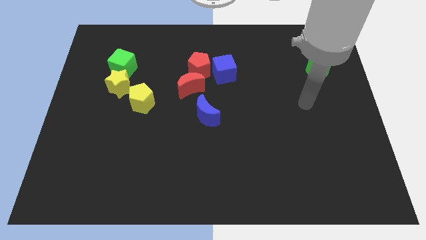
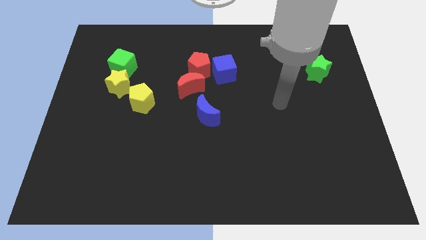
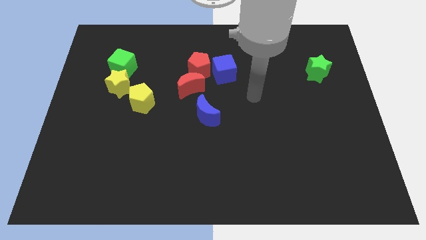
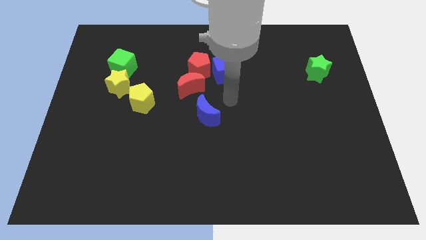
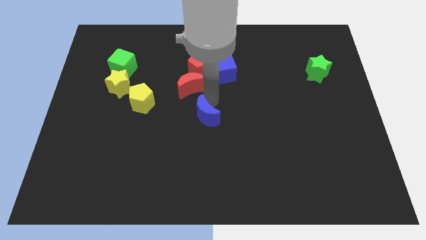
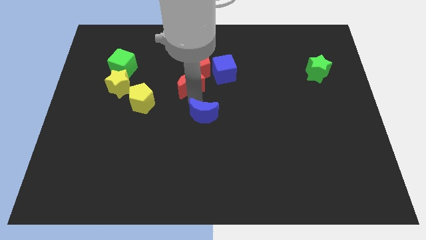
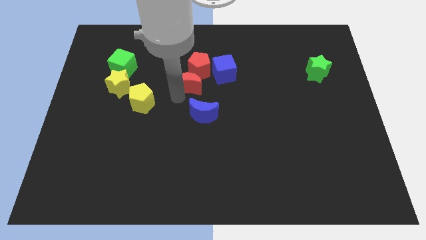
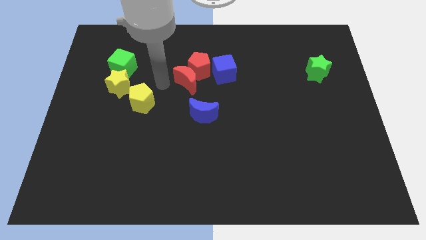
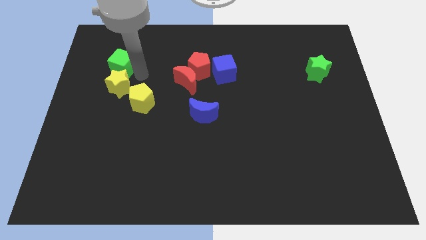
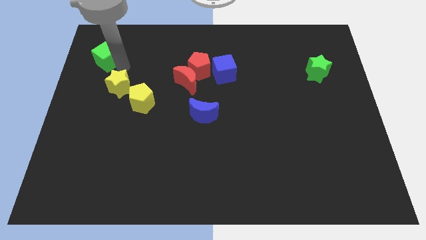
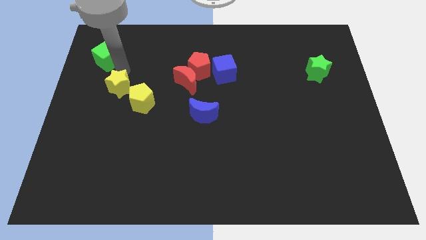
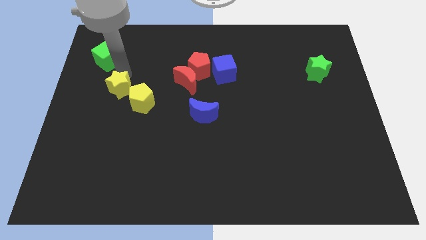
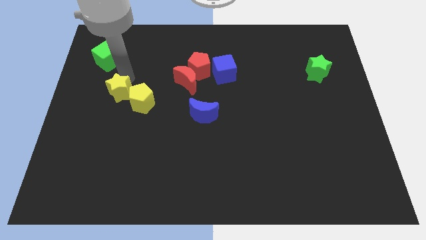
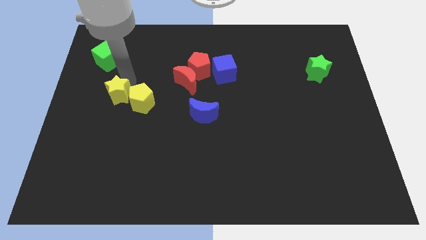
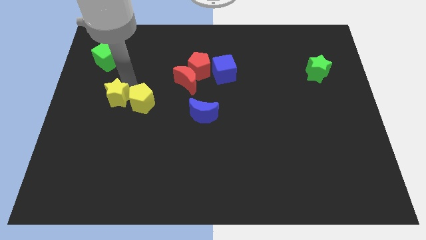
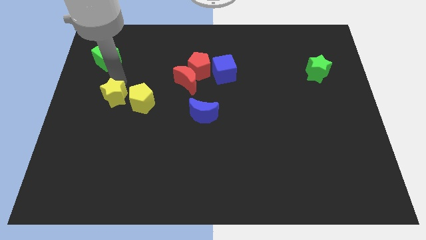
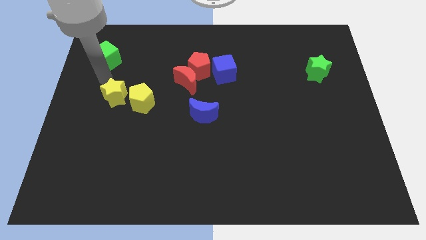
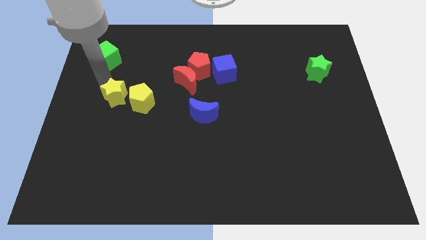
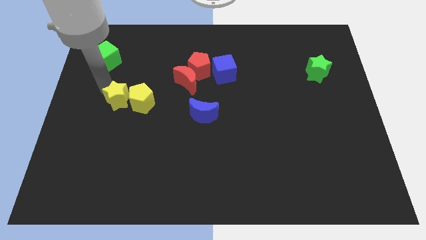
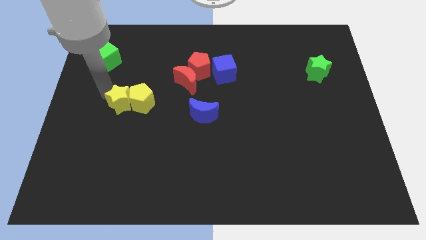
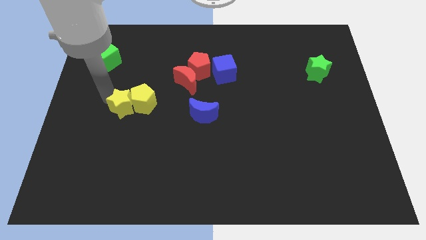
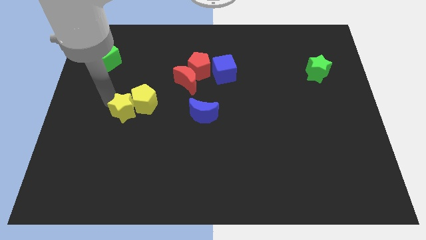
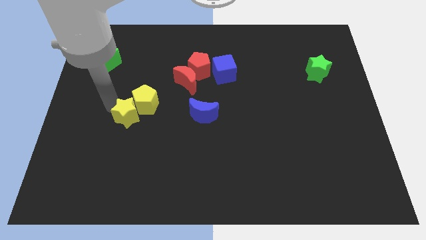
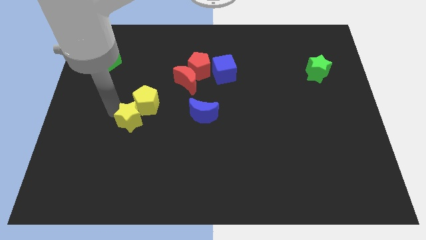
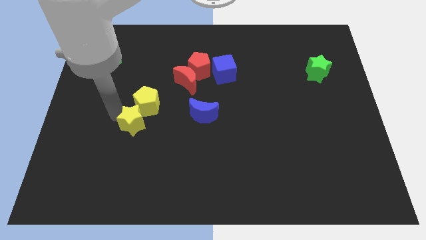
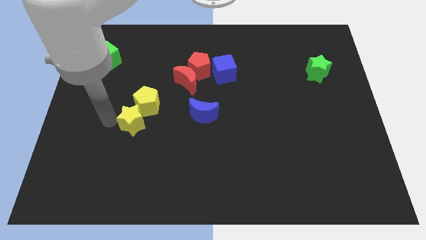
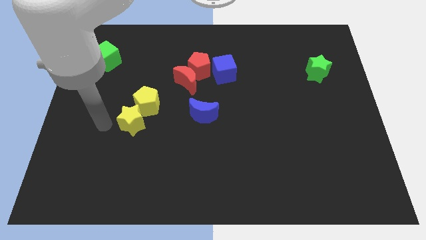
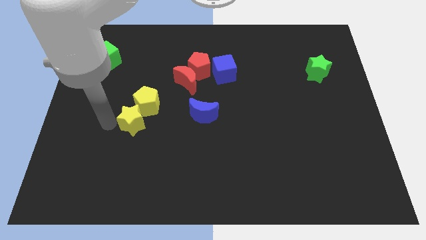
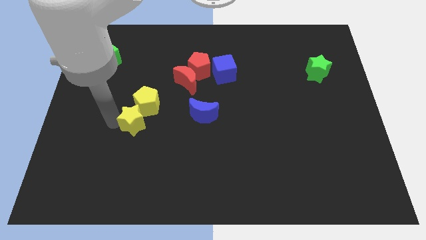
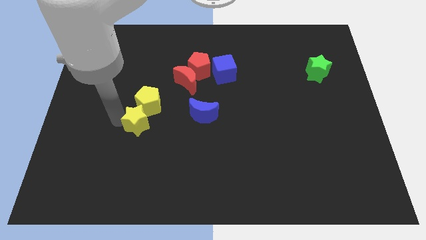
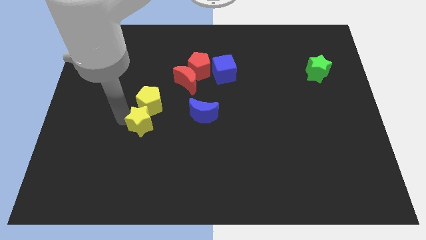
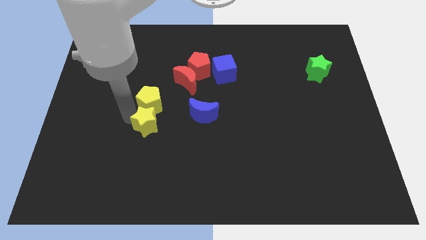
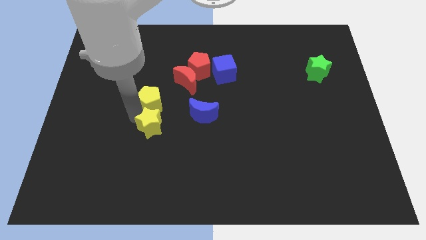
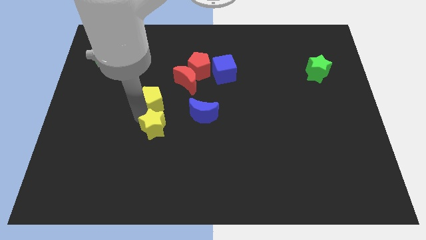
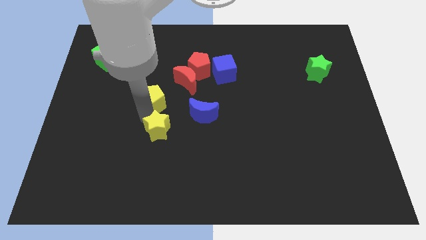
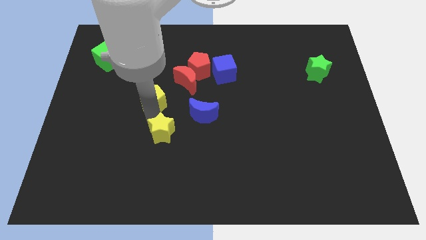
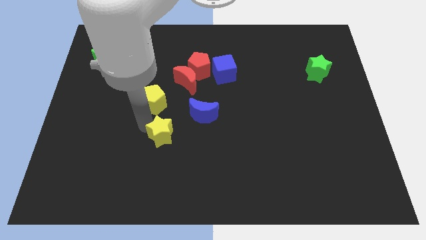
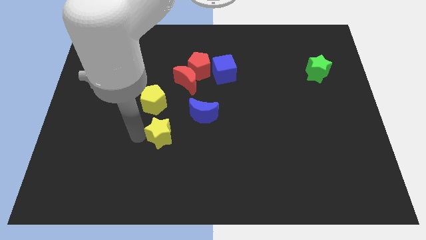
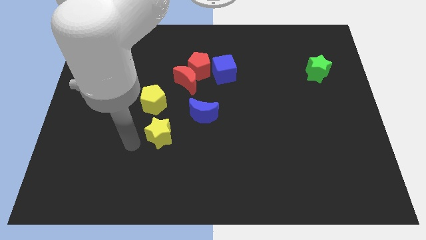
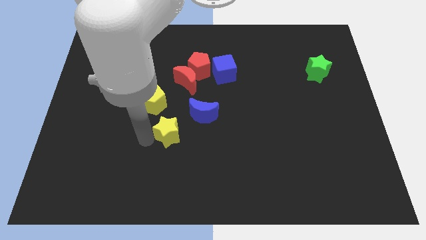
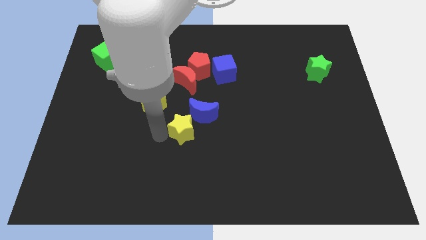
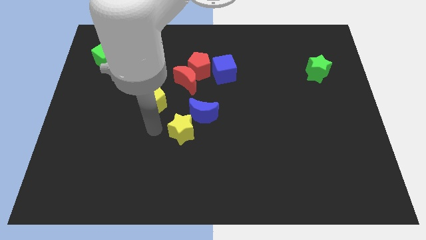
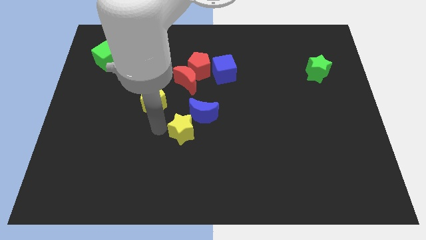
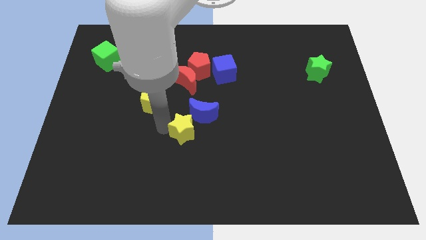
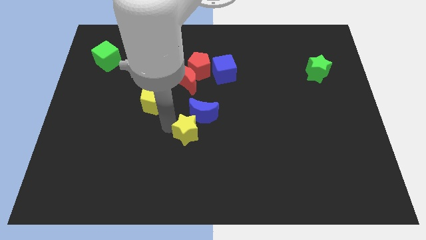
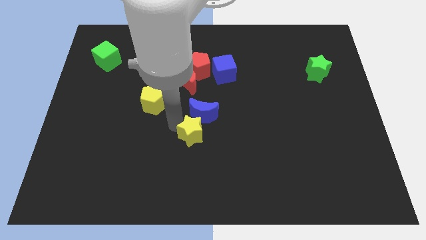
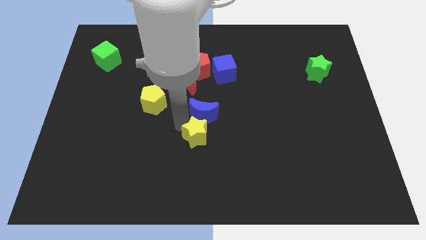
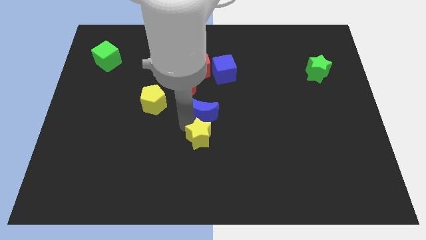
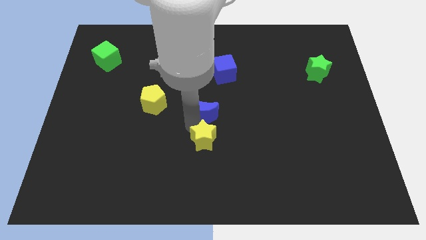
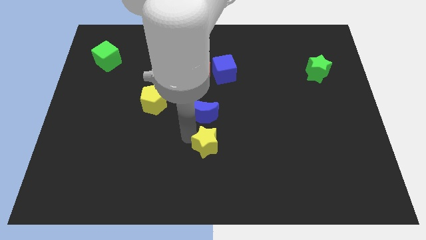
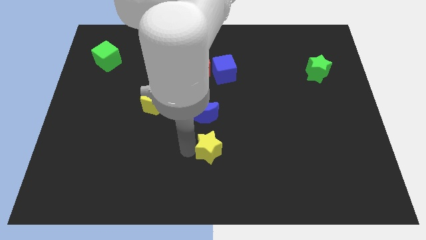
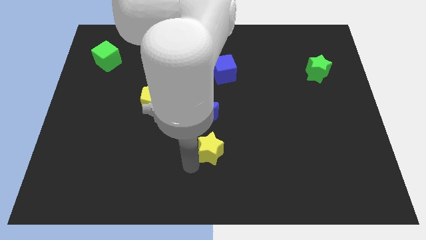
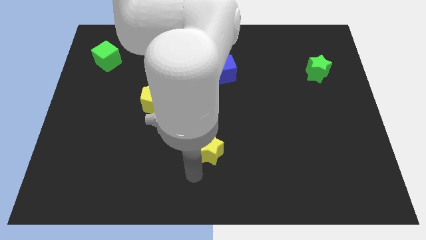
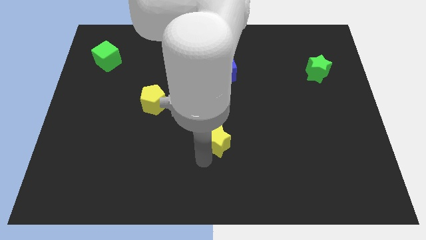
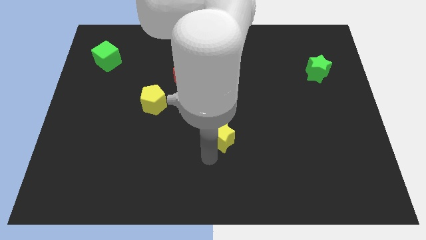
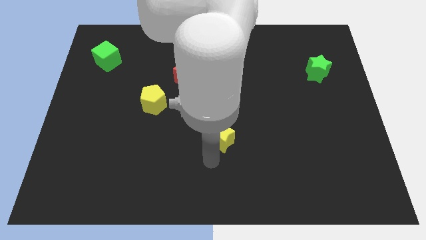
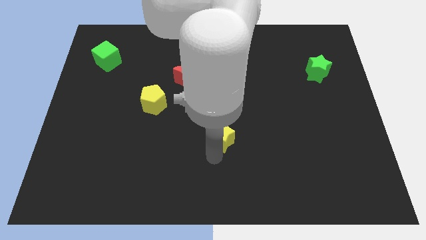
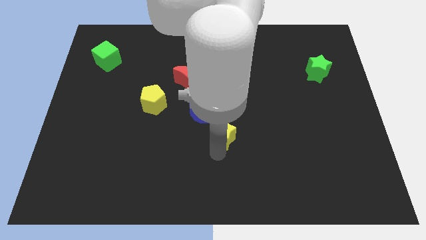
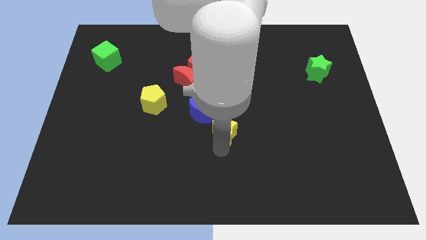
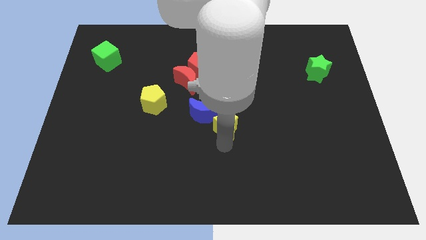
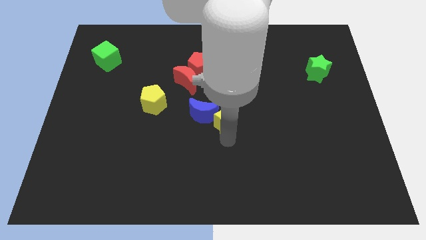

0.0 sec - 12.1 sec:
slide the yellow star to the bottom side of the blue cube
